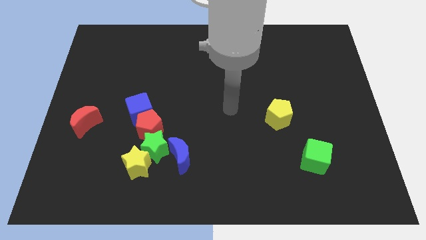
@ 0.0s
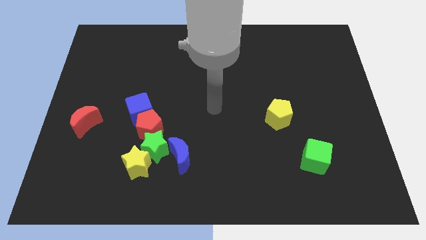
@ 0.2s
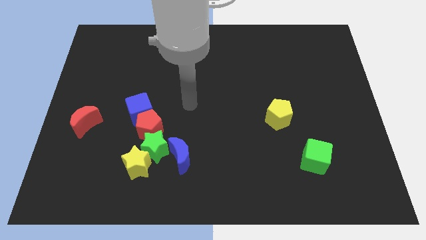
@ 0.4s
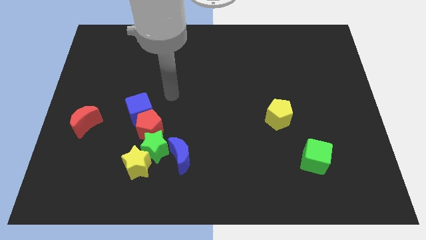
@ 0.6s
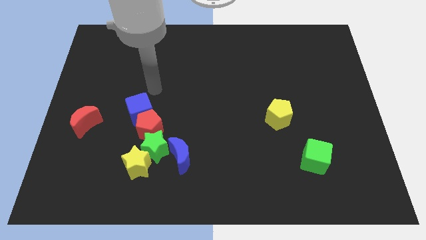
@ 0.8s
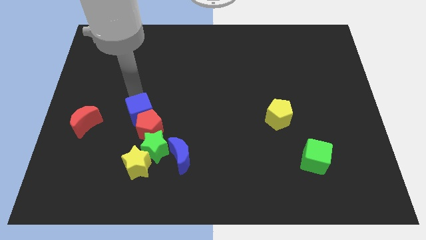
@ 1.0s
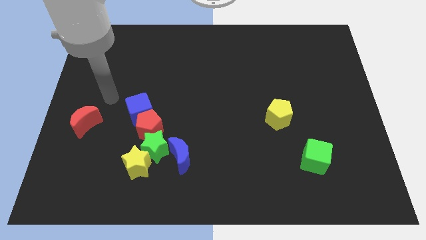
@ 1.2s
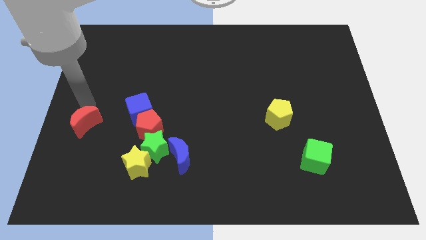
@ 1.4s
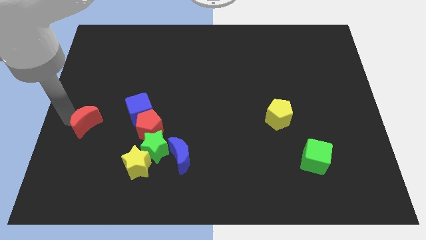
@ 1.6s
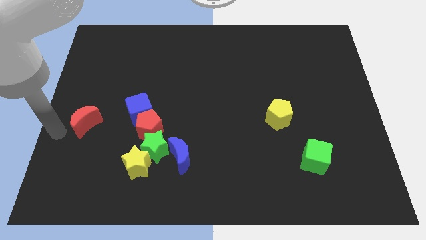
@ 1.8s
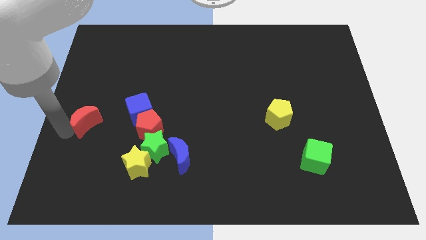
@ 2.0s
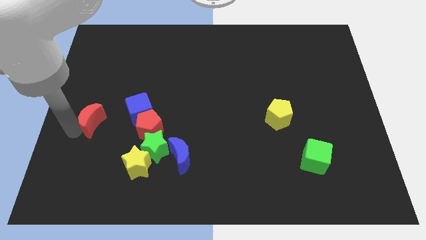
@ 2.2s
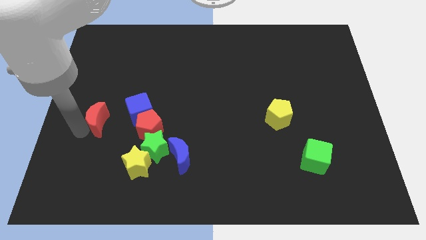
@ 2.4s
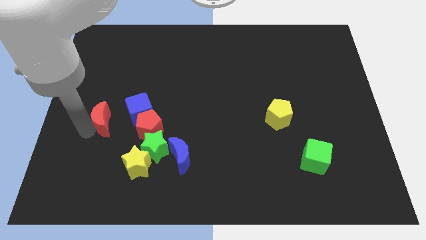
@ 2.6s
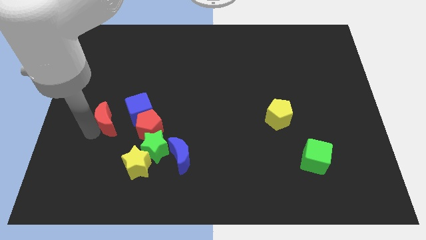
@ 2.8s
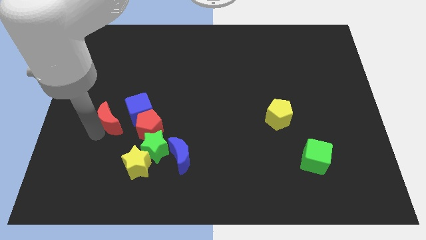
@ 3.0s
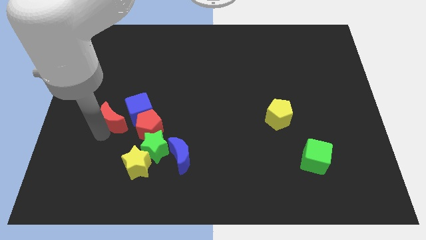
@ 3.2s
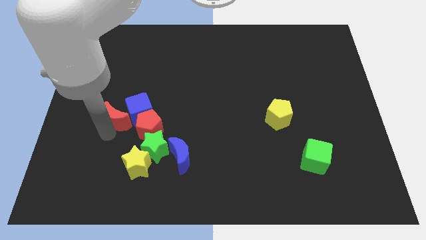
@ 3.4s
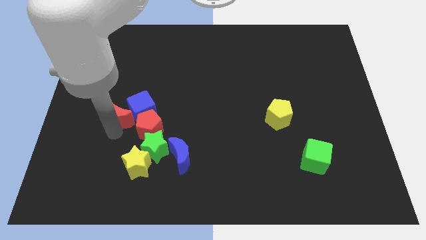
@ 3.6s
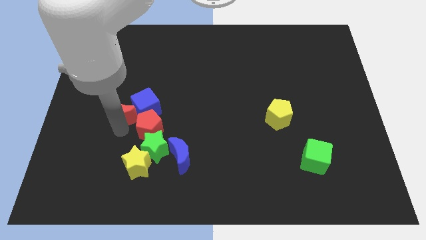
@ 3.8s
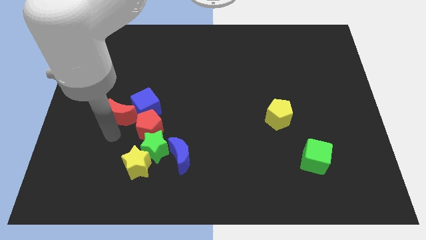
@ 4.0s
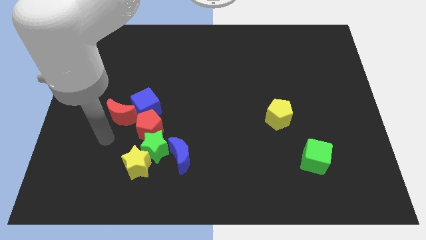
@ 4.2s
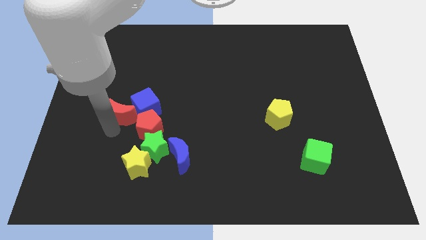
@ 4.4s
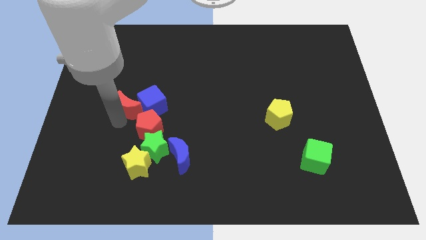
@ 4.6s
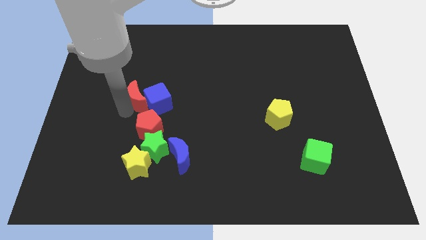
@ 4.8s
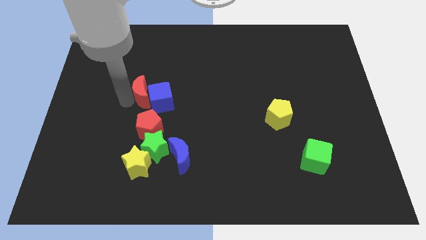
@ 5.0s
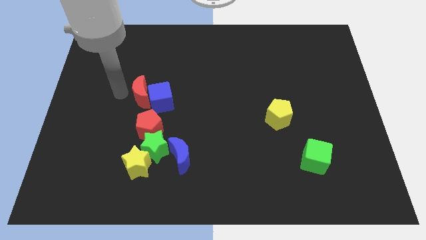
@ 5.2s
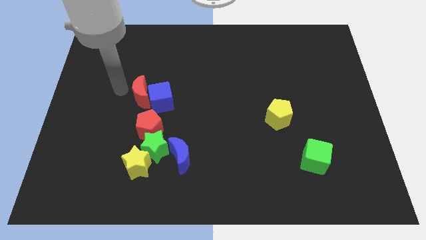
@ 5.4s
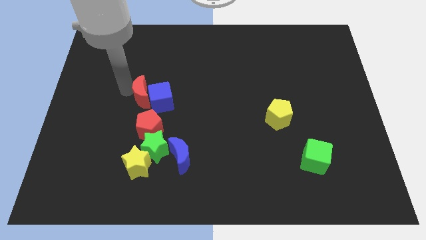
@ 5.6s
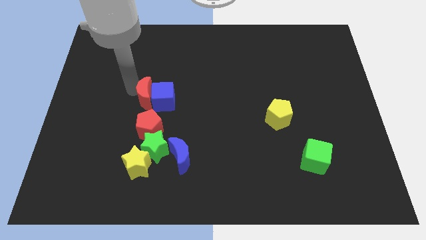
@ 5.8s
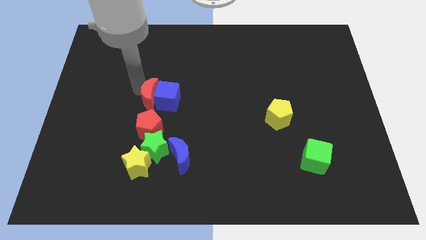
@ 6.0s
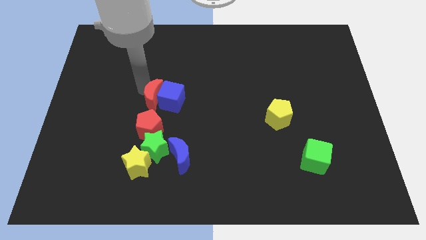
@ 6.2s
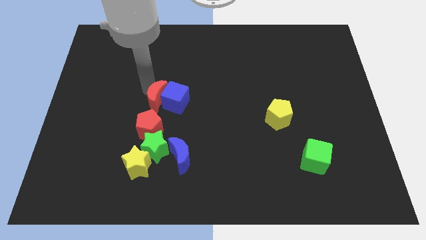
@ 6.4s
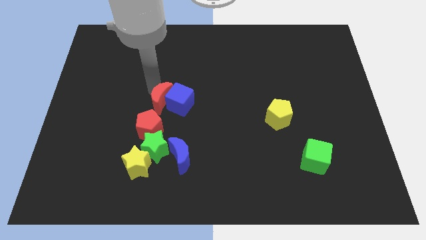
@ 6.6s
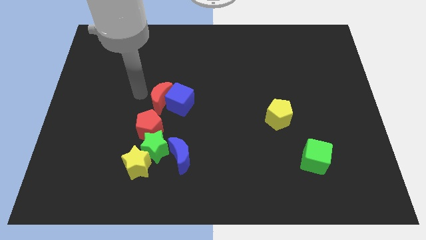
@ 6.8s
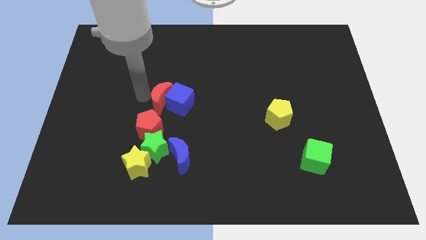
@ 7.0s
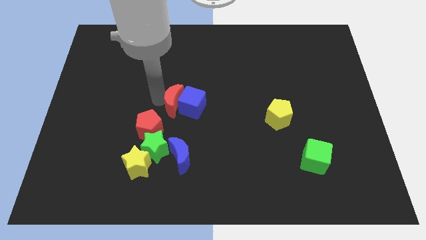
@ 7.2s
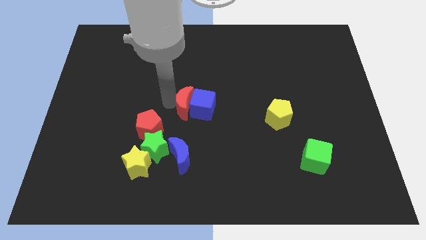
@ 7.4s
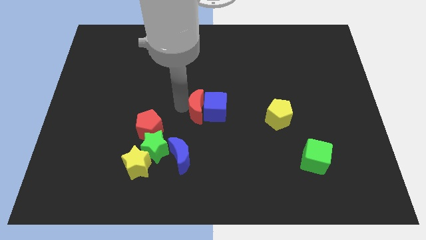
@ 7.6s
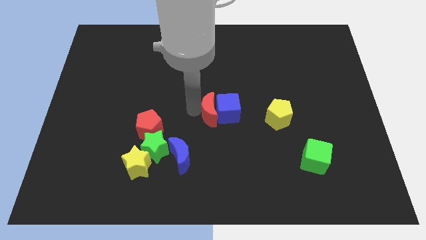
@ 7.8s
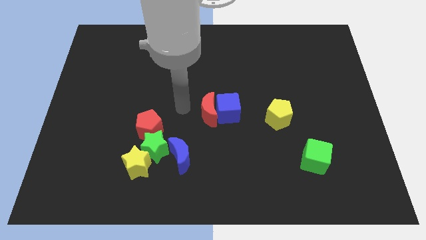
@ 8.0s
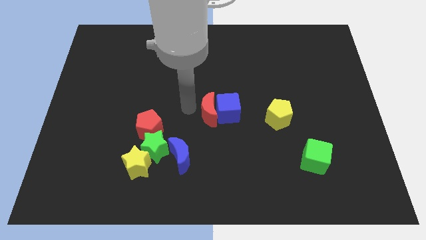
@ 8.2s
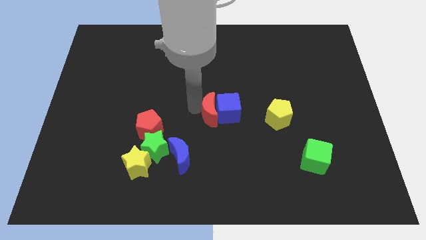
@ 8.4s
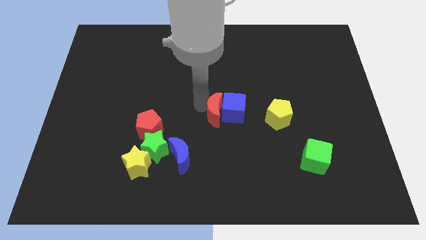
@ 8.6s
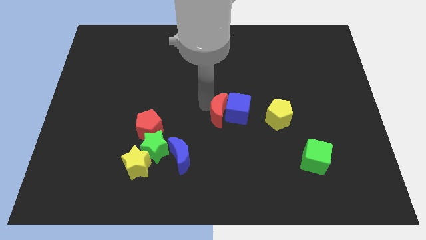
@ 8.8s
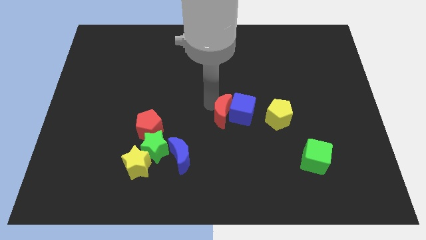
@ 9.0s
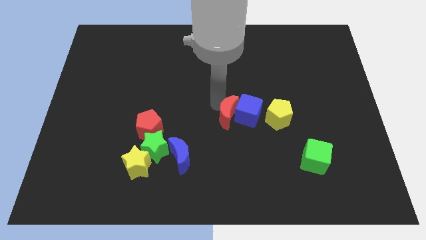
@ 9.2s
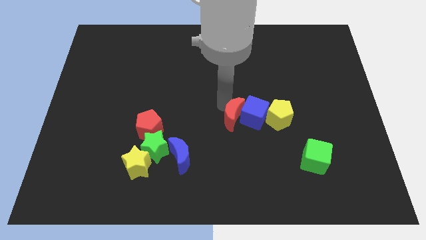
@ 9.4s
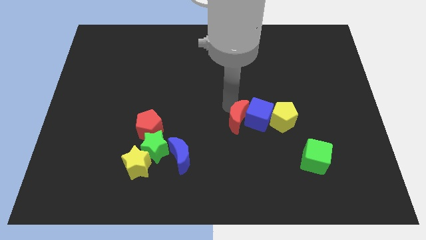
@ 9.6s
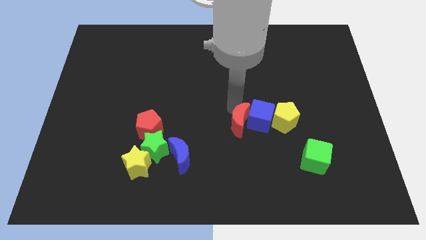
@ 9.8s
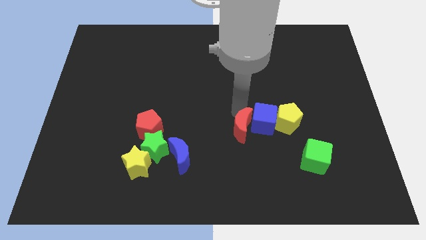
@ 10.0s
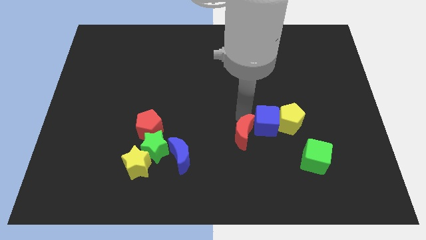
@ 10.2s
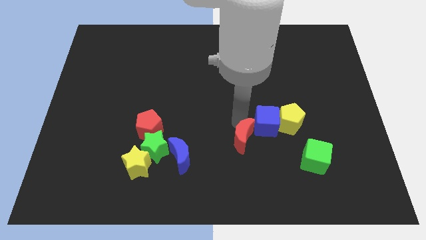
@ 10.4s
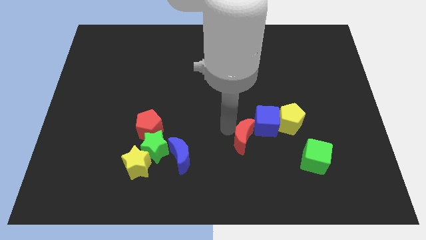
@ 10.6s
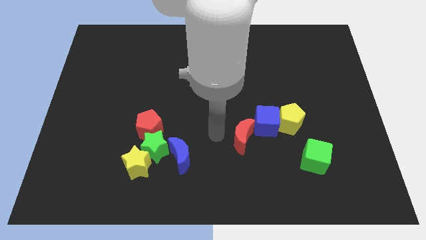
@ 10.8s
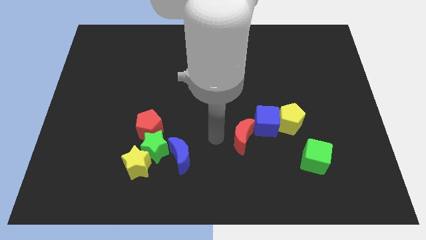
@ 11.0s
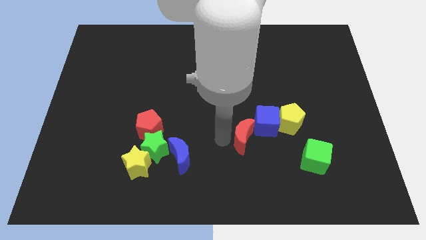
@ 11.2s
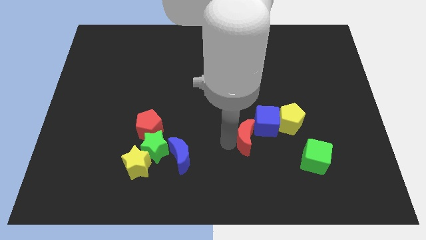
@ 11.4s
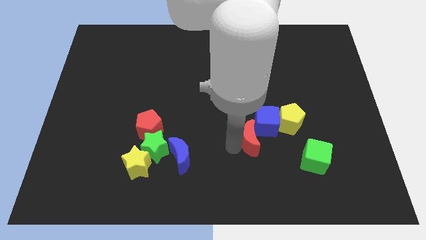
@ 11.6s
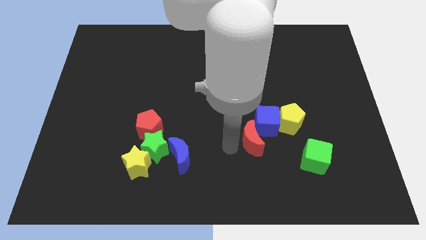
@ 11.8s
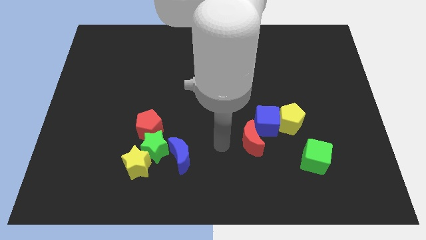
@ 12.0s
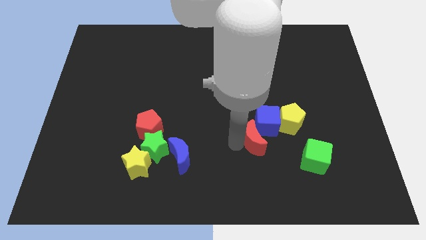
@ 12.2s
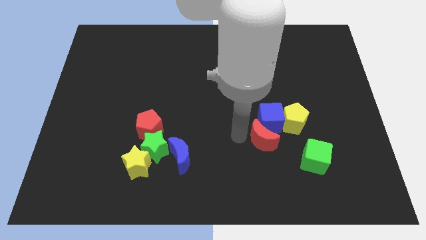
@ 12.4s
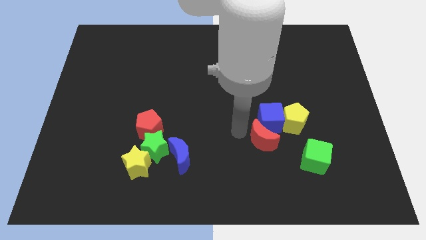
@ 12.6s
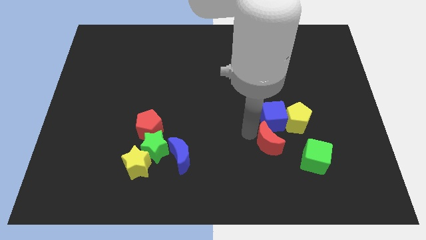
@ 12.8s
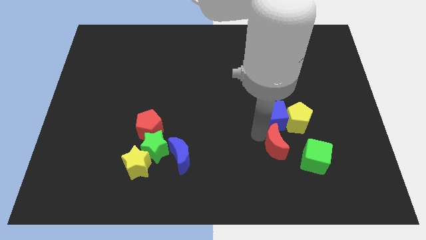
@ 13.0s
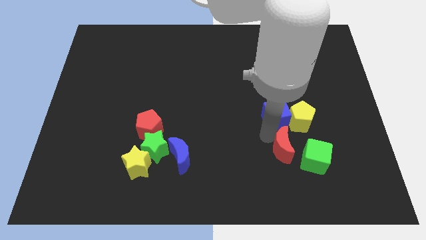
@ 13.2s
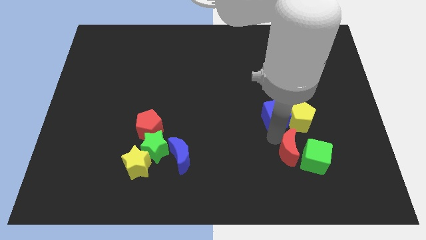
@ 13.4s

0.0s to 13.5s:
push the red moon next to the green cube

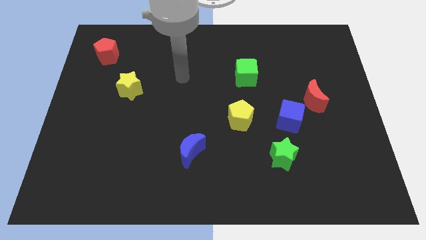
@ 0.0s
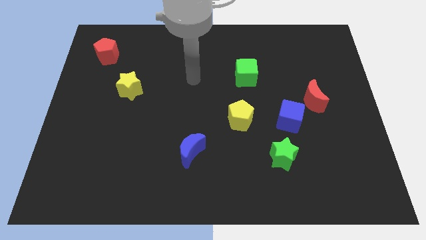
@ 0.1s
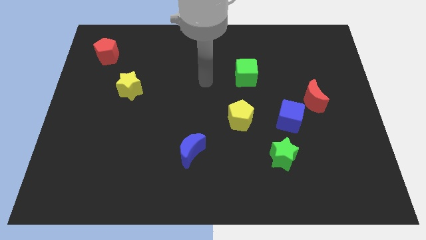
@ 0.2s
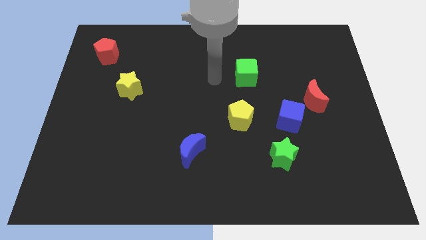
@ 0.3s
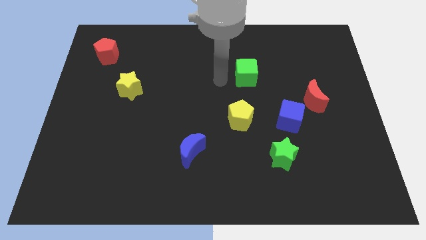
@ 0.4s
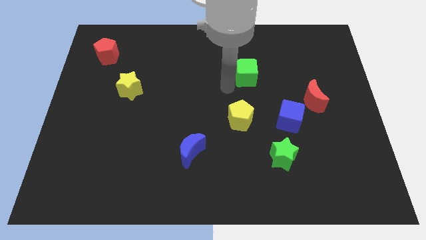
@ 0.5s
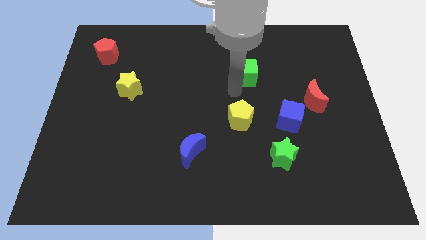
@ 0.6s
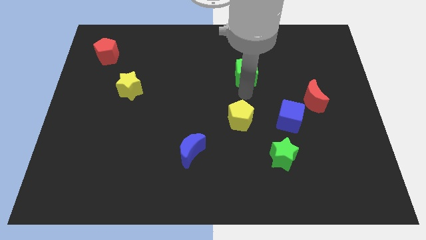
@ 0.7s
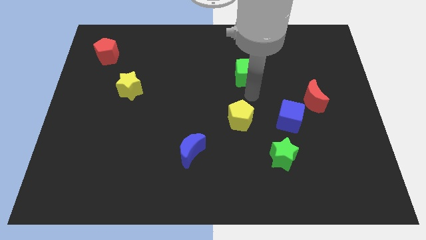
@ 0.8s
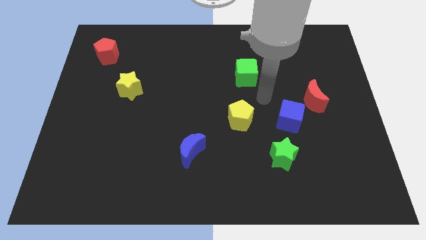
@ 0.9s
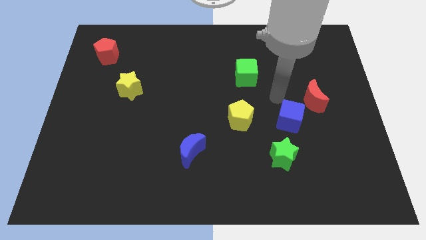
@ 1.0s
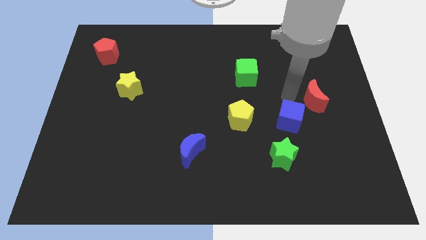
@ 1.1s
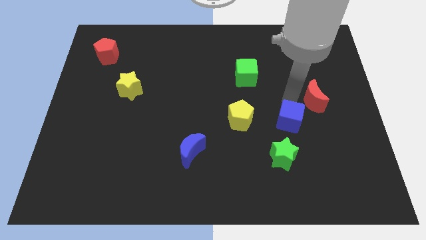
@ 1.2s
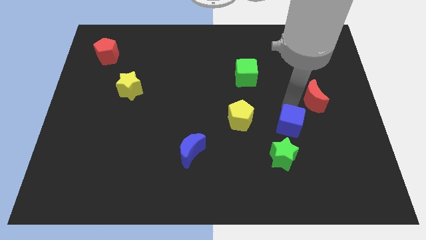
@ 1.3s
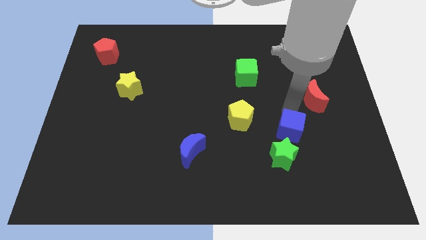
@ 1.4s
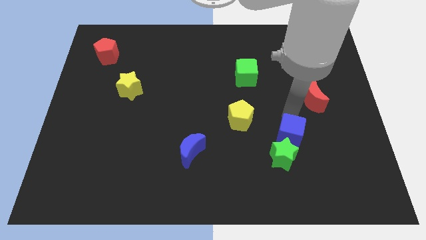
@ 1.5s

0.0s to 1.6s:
put the blue cube close to the green star
